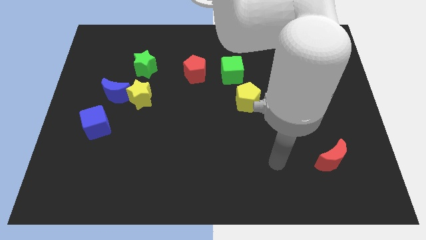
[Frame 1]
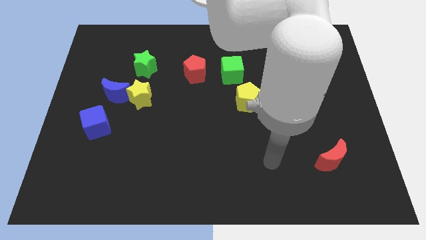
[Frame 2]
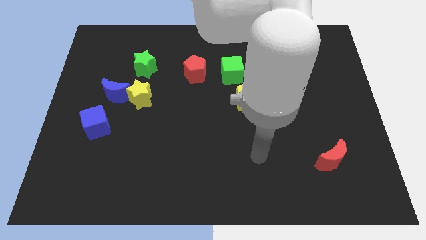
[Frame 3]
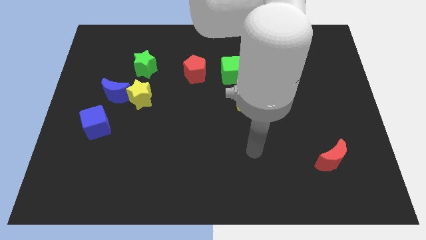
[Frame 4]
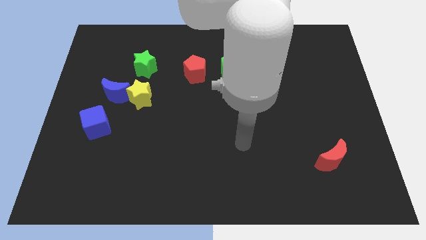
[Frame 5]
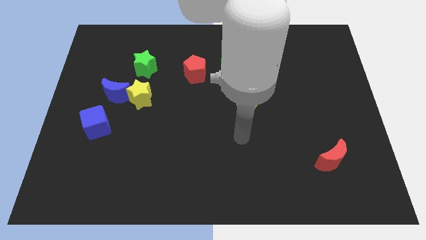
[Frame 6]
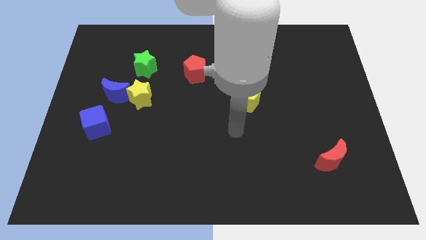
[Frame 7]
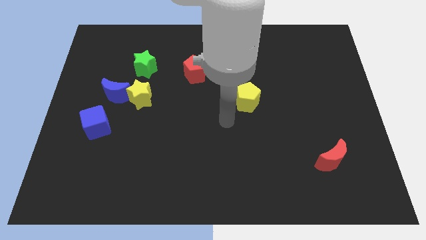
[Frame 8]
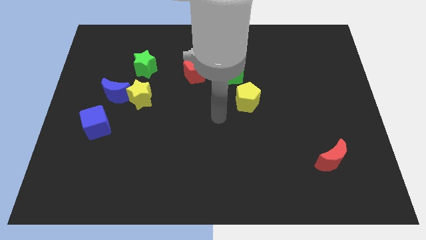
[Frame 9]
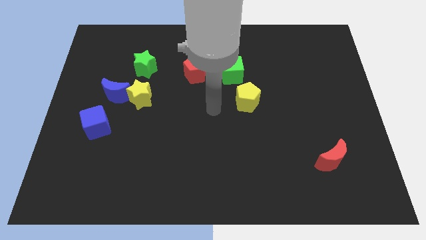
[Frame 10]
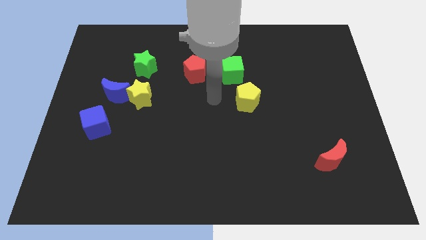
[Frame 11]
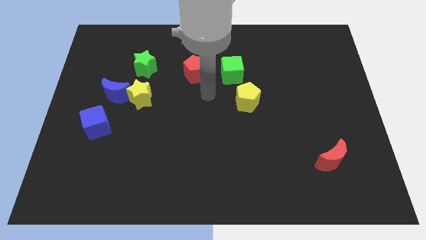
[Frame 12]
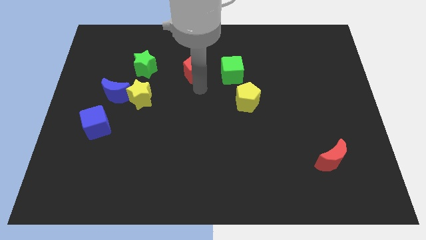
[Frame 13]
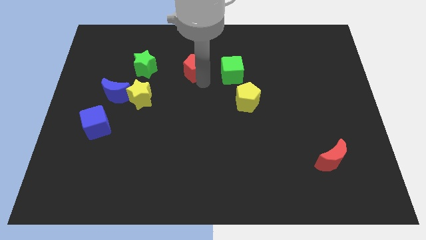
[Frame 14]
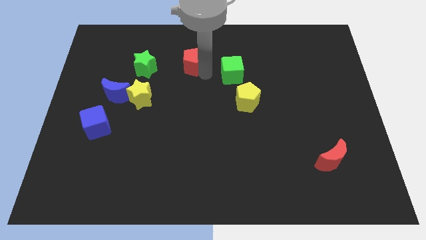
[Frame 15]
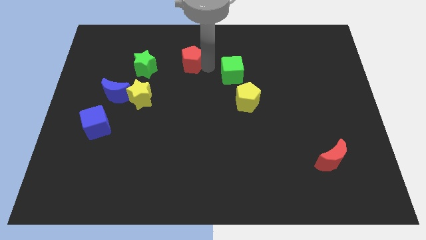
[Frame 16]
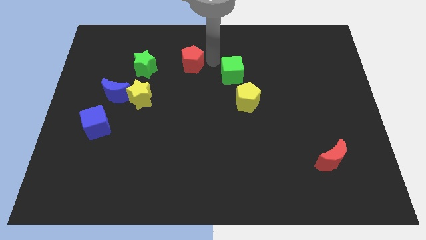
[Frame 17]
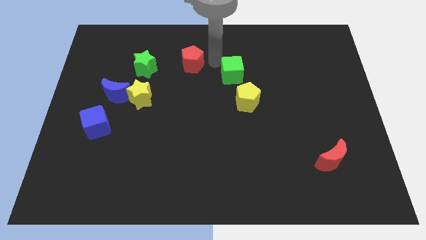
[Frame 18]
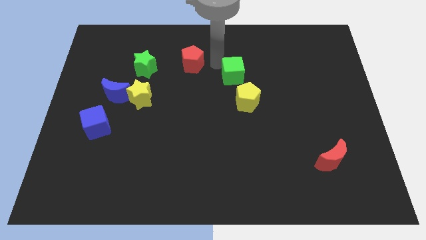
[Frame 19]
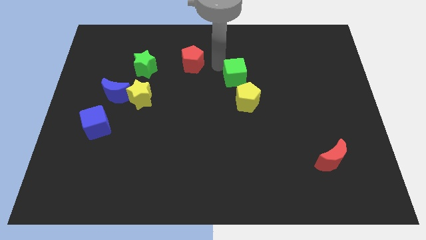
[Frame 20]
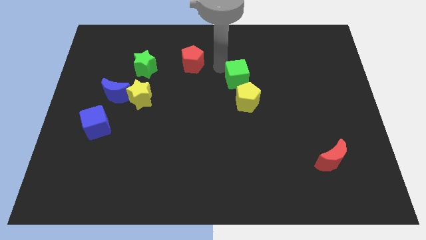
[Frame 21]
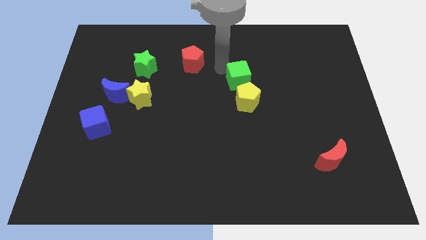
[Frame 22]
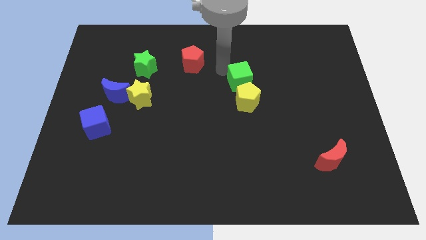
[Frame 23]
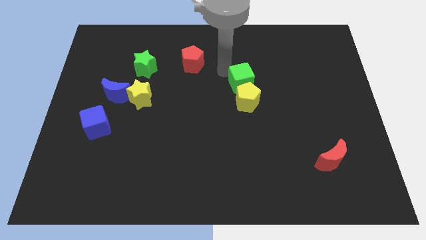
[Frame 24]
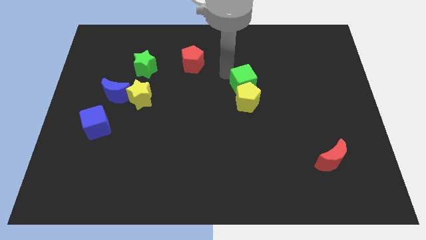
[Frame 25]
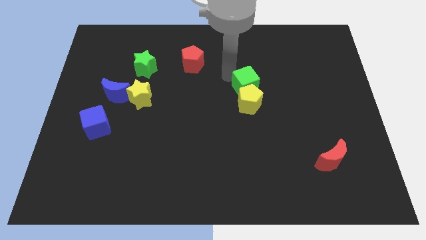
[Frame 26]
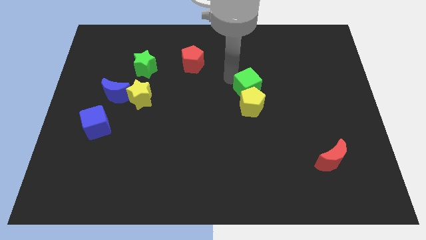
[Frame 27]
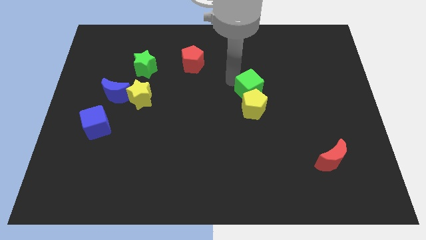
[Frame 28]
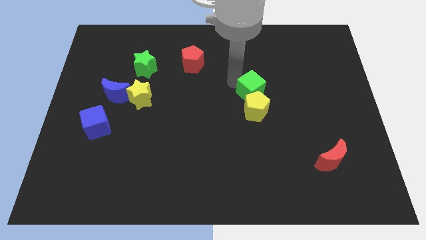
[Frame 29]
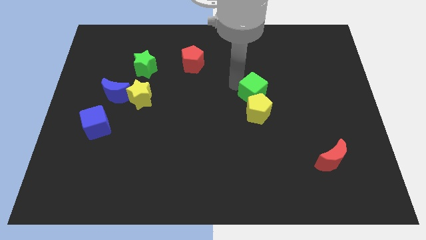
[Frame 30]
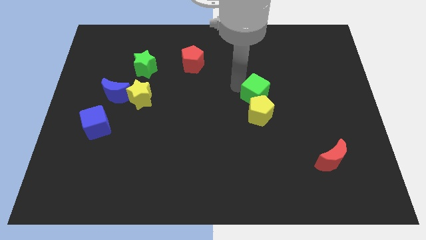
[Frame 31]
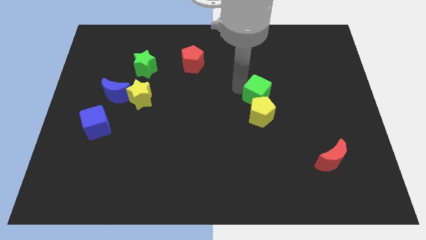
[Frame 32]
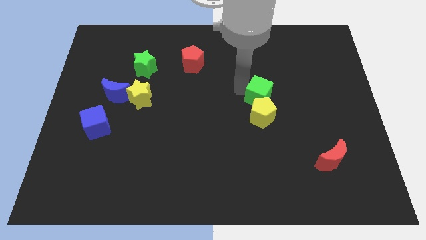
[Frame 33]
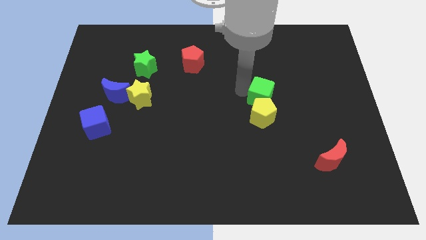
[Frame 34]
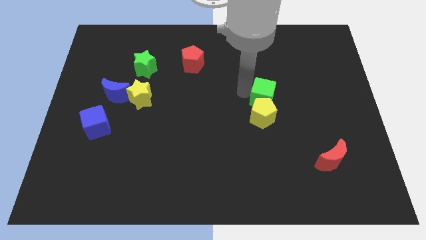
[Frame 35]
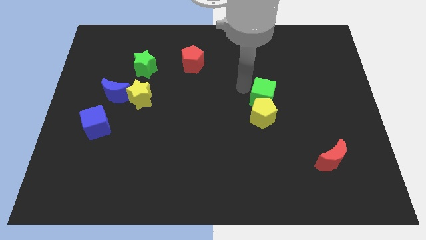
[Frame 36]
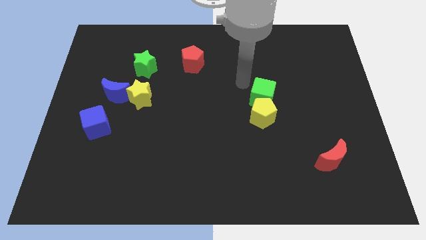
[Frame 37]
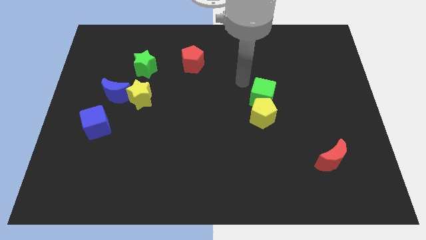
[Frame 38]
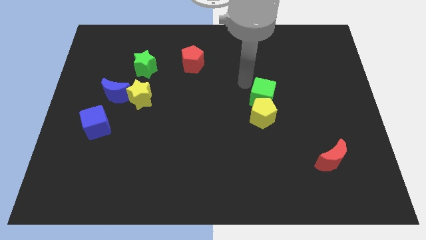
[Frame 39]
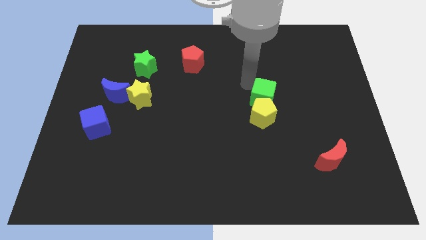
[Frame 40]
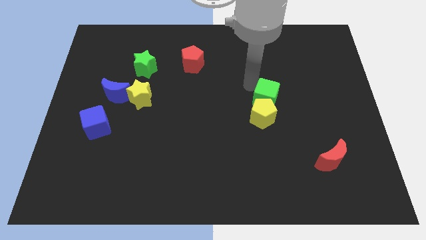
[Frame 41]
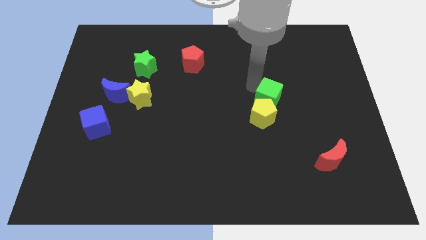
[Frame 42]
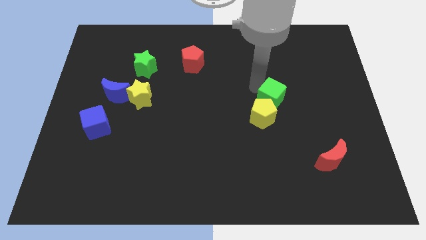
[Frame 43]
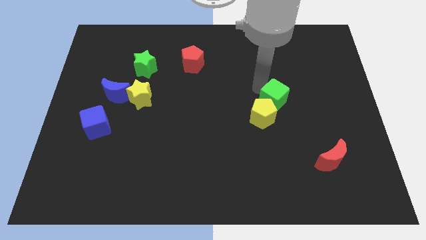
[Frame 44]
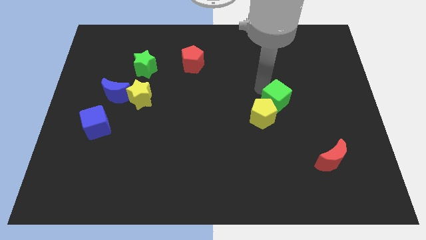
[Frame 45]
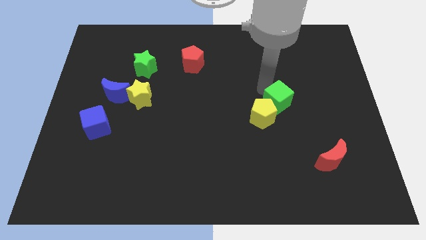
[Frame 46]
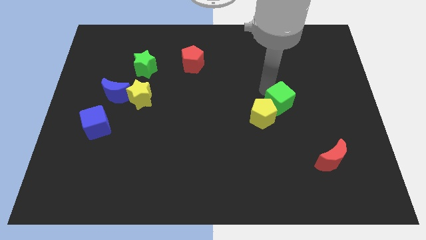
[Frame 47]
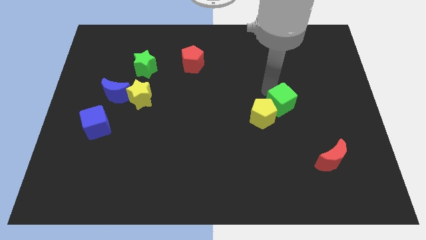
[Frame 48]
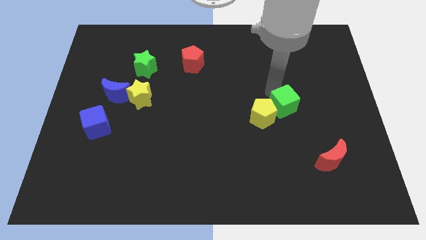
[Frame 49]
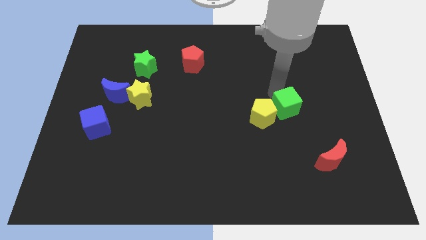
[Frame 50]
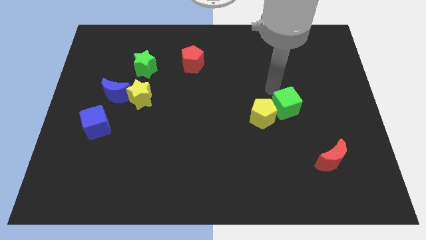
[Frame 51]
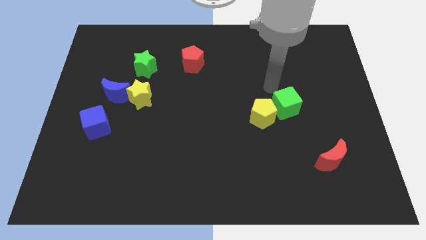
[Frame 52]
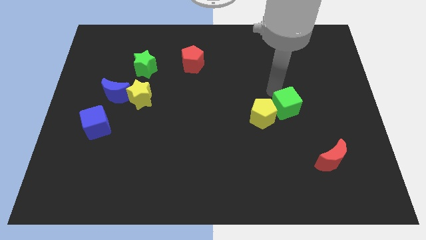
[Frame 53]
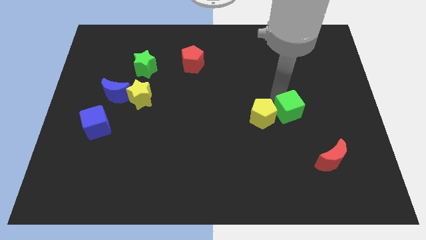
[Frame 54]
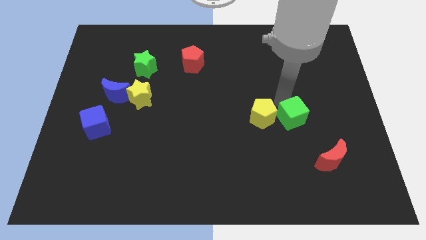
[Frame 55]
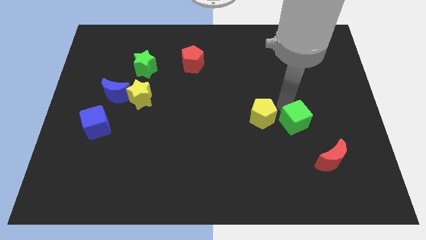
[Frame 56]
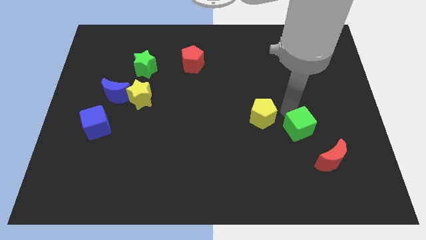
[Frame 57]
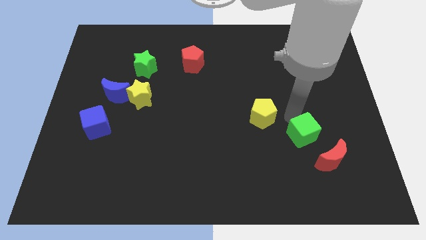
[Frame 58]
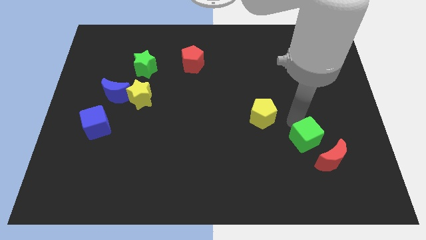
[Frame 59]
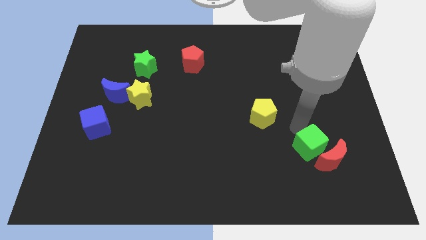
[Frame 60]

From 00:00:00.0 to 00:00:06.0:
move the green cube towards the red moon

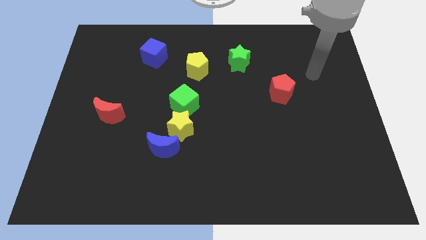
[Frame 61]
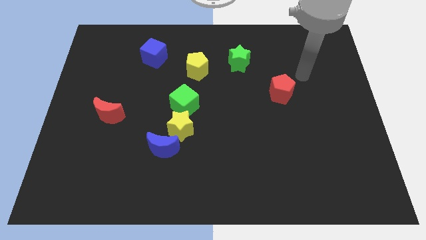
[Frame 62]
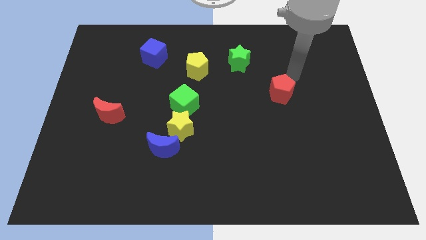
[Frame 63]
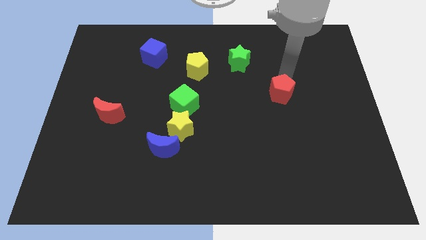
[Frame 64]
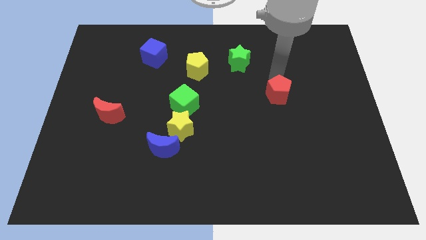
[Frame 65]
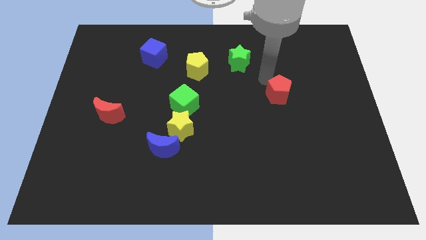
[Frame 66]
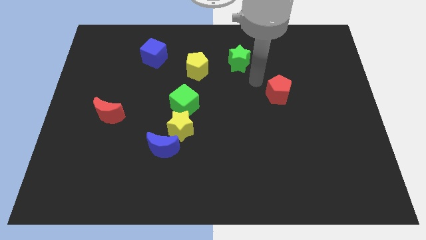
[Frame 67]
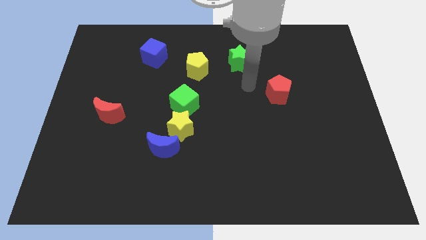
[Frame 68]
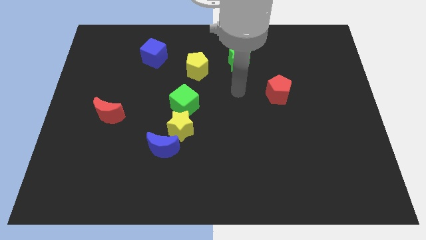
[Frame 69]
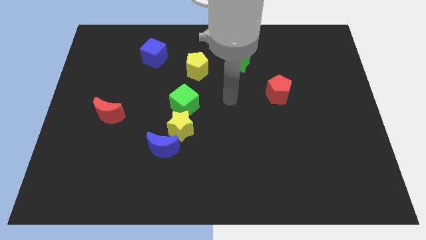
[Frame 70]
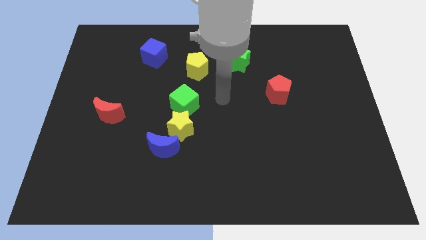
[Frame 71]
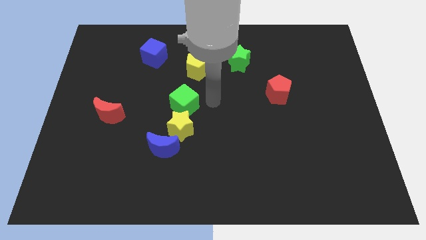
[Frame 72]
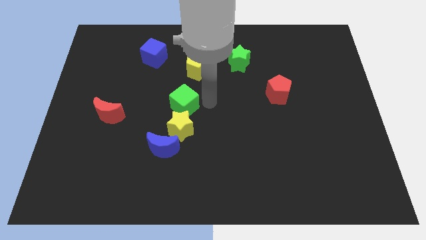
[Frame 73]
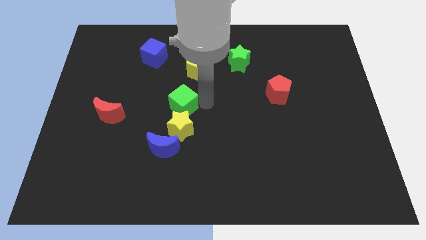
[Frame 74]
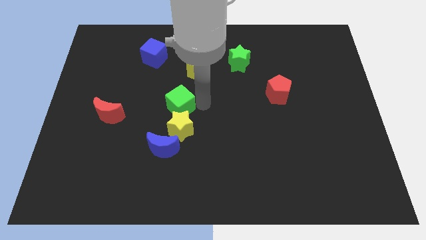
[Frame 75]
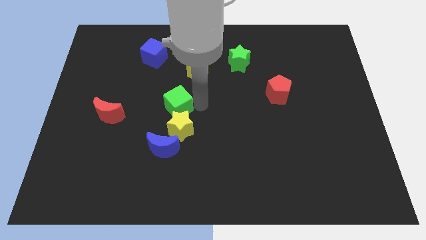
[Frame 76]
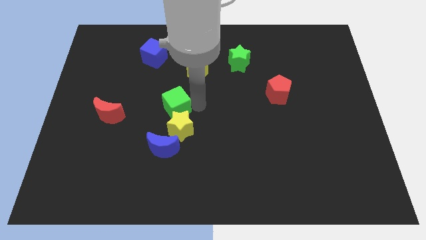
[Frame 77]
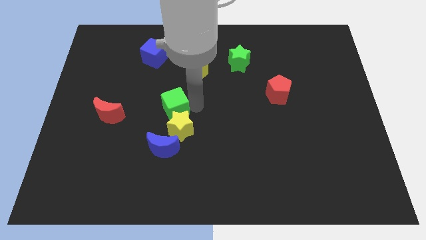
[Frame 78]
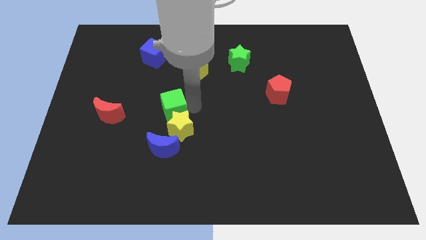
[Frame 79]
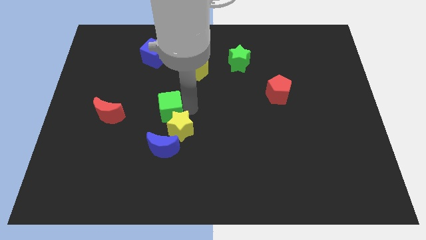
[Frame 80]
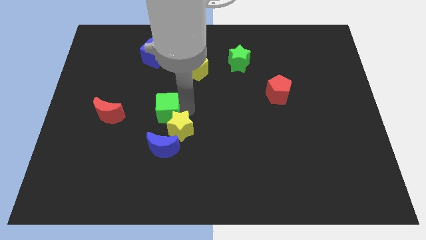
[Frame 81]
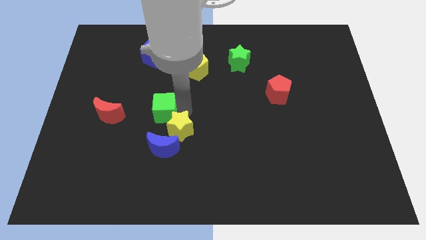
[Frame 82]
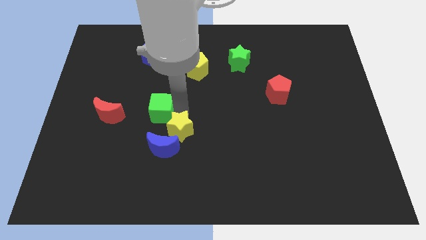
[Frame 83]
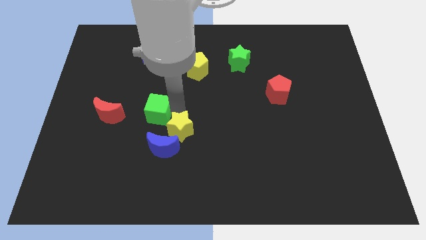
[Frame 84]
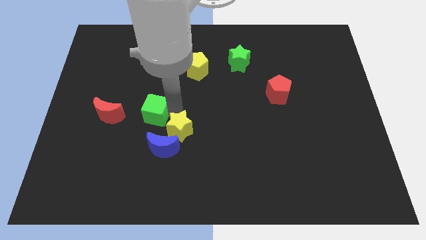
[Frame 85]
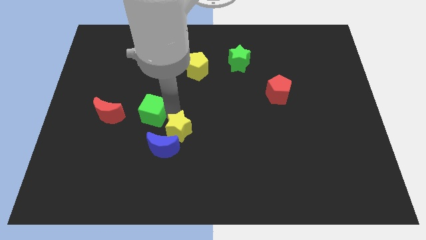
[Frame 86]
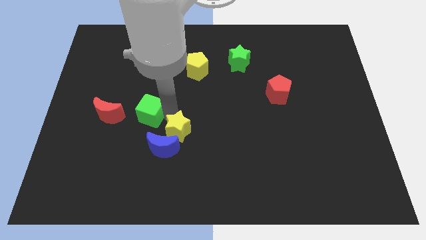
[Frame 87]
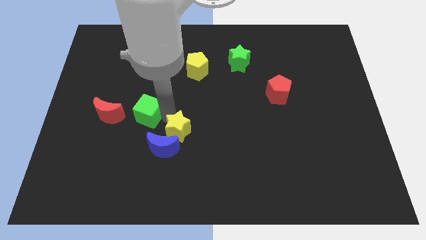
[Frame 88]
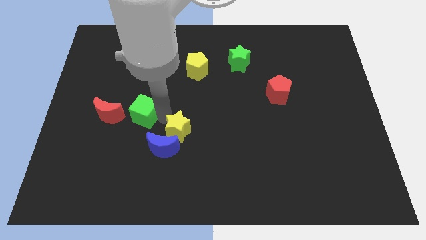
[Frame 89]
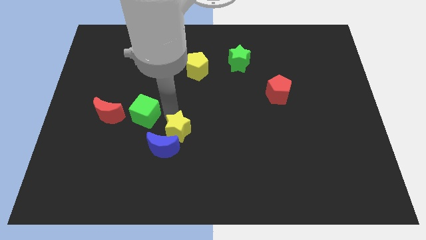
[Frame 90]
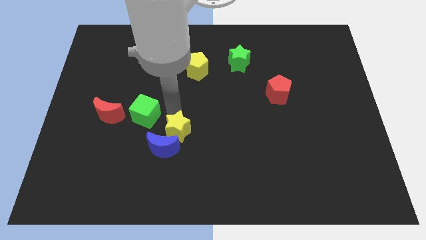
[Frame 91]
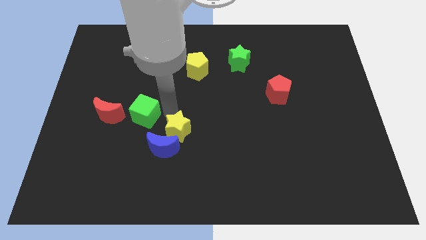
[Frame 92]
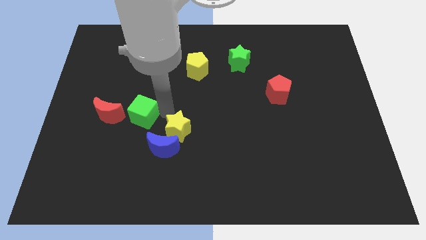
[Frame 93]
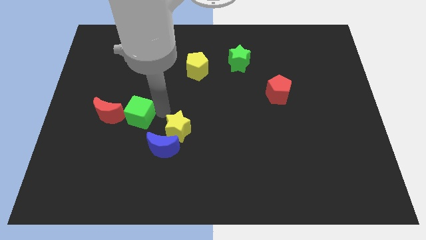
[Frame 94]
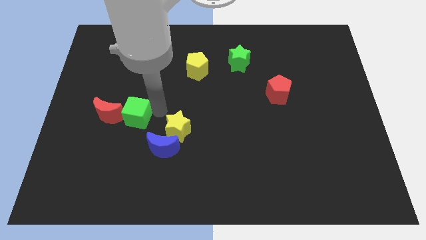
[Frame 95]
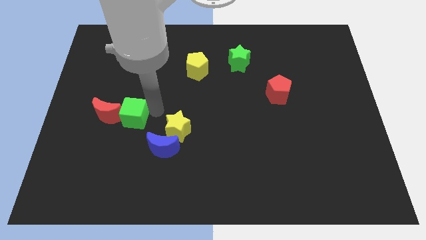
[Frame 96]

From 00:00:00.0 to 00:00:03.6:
push the green cube towards the red moon
